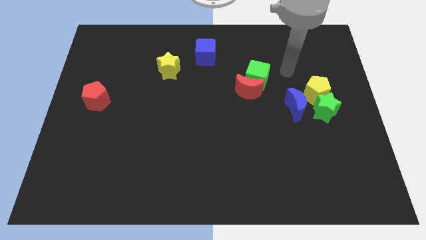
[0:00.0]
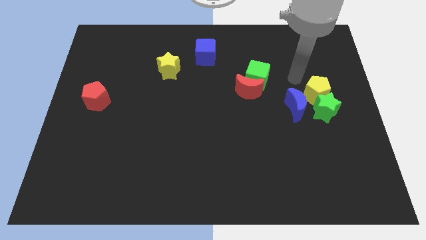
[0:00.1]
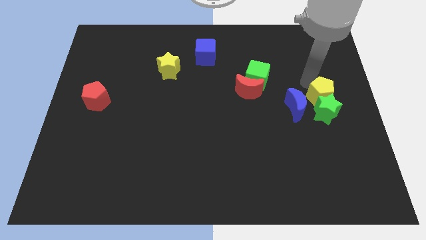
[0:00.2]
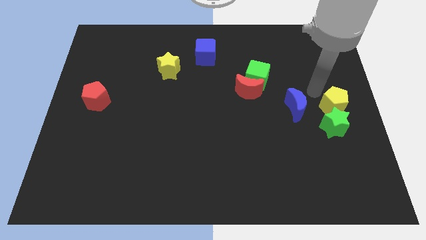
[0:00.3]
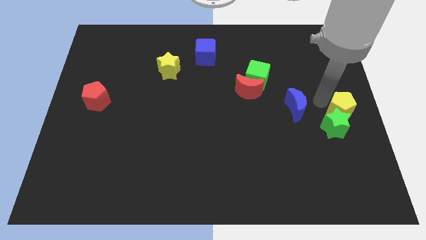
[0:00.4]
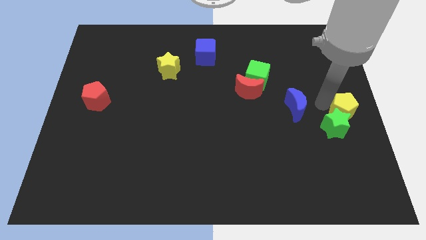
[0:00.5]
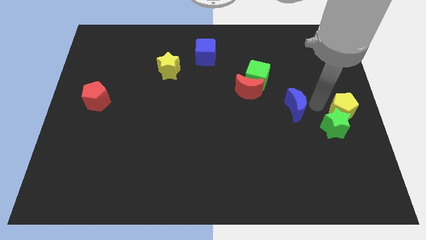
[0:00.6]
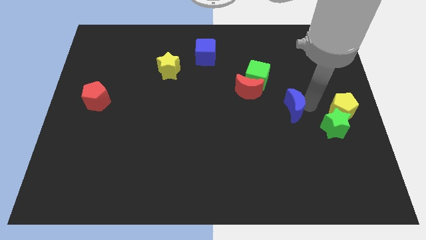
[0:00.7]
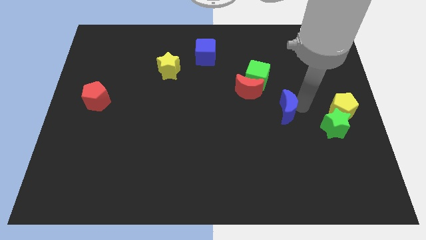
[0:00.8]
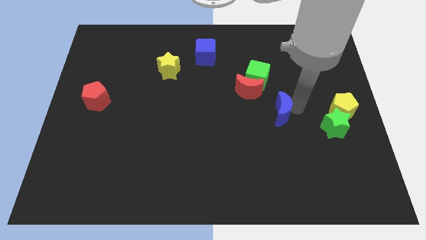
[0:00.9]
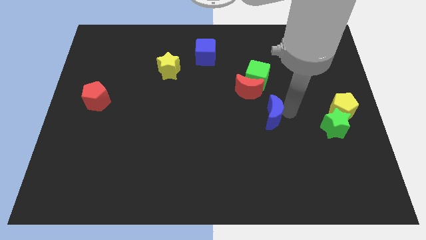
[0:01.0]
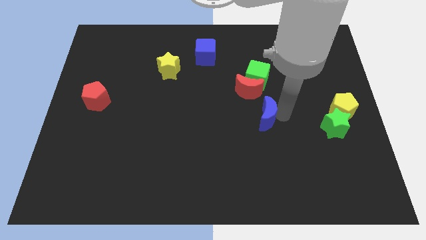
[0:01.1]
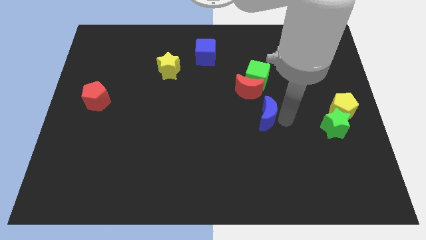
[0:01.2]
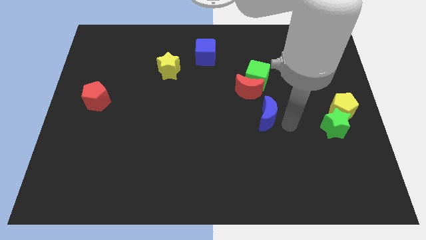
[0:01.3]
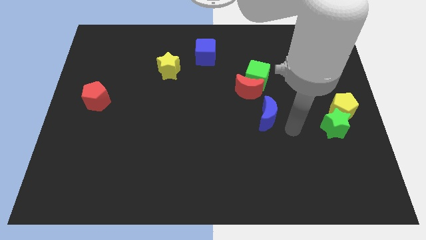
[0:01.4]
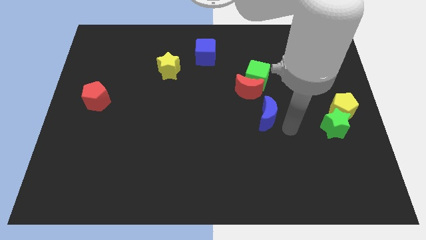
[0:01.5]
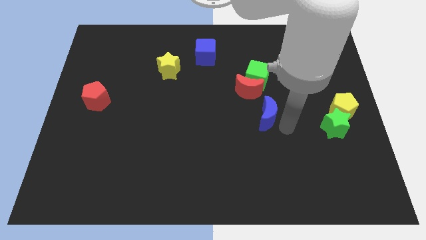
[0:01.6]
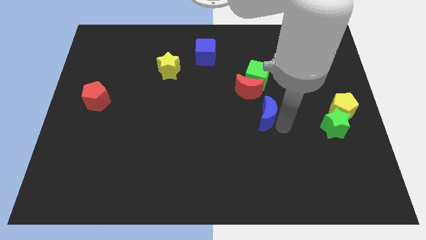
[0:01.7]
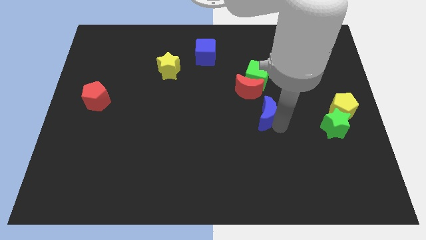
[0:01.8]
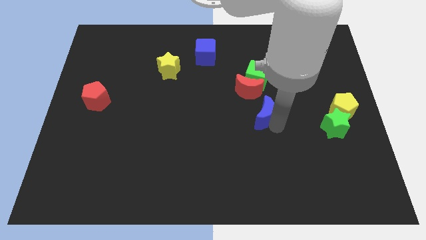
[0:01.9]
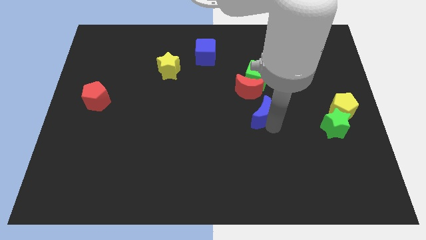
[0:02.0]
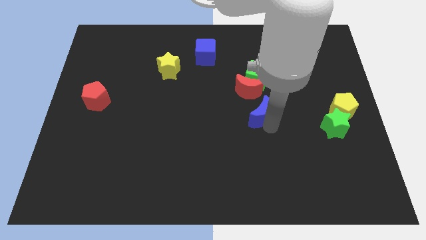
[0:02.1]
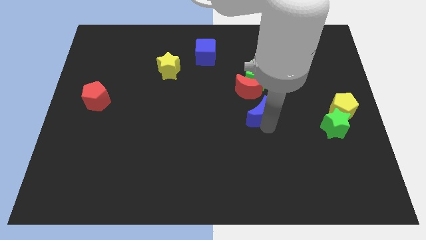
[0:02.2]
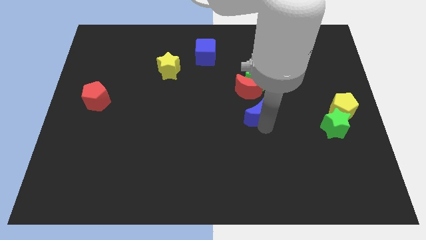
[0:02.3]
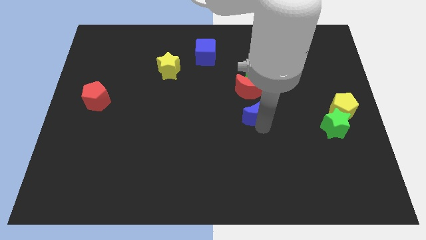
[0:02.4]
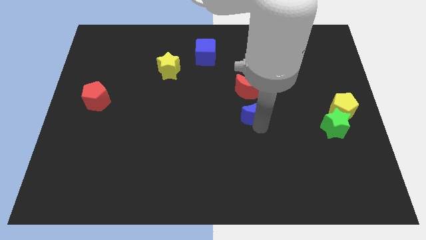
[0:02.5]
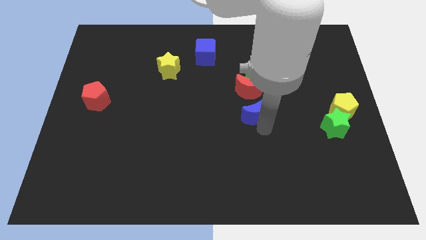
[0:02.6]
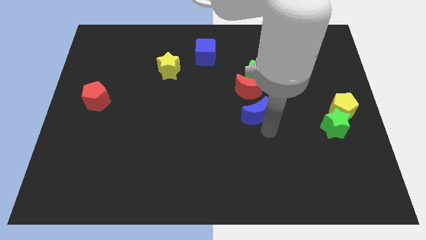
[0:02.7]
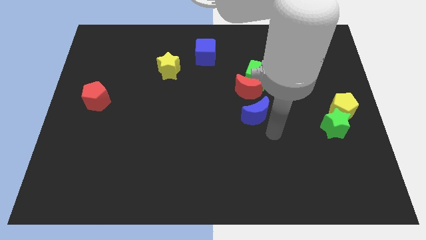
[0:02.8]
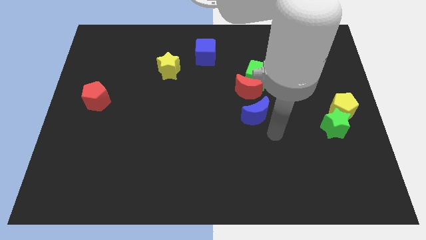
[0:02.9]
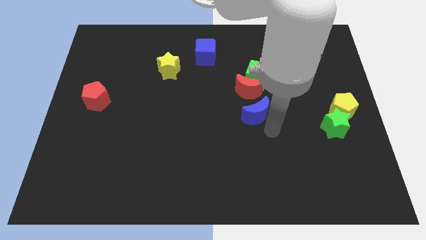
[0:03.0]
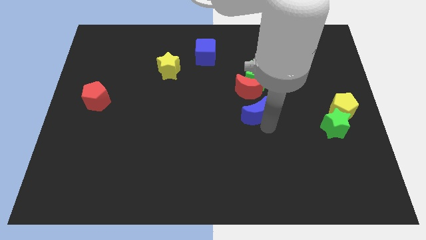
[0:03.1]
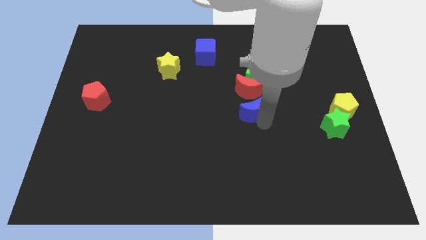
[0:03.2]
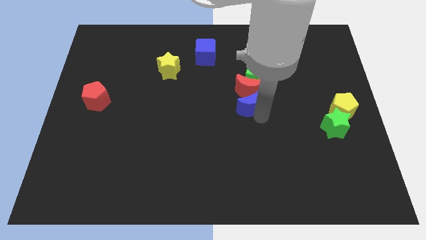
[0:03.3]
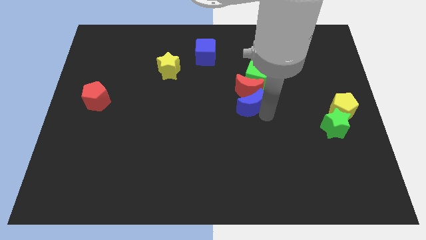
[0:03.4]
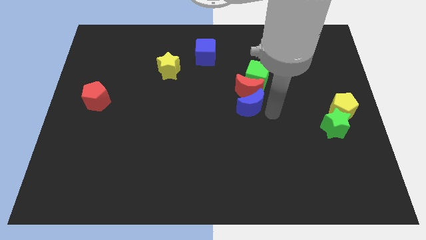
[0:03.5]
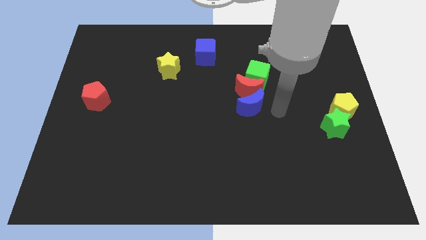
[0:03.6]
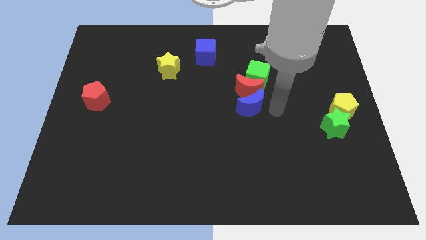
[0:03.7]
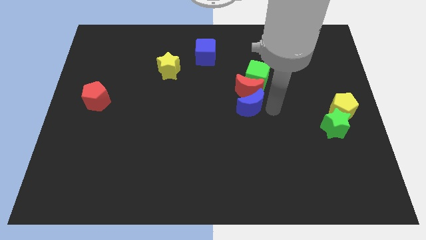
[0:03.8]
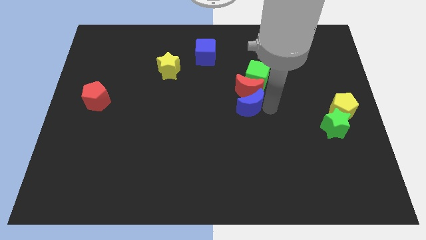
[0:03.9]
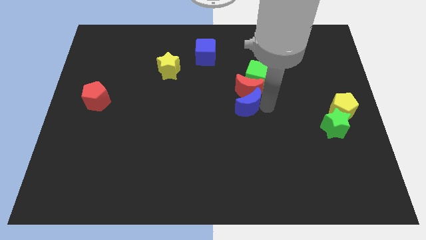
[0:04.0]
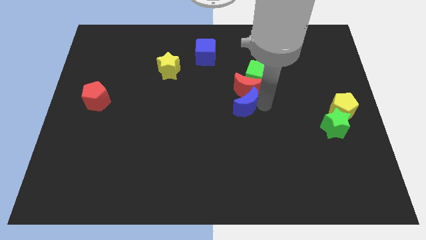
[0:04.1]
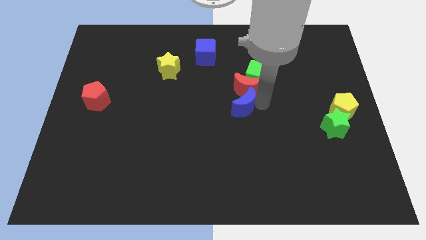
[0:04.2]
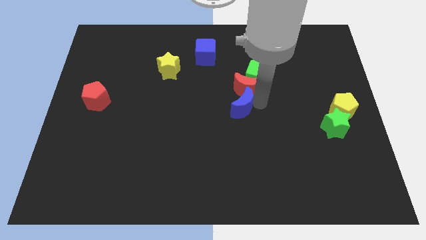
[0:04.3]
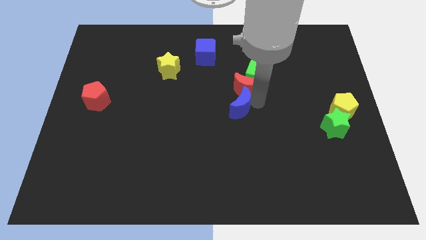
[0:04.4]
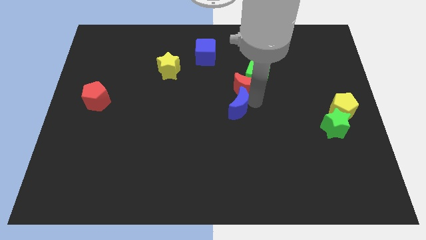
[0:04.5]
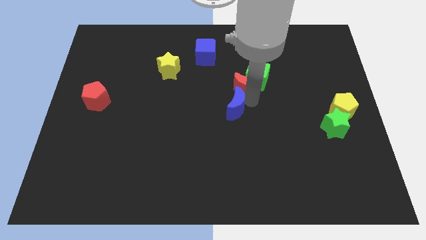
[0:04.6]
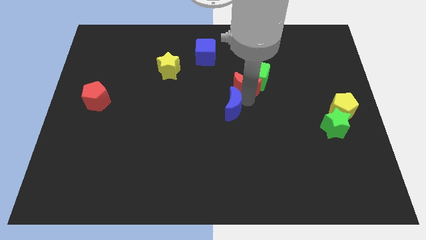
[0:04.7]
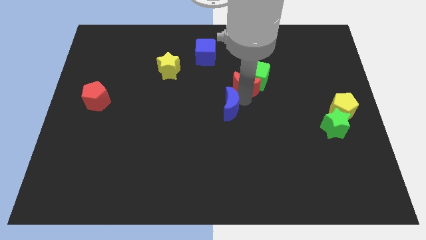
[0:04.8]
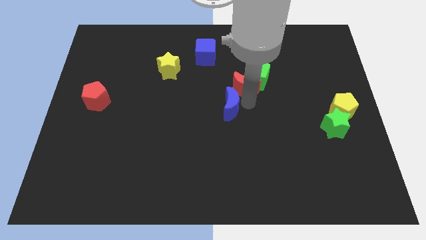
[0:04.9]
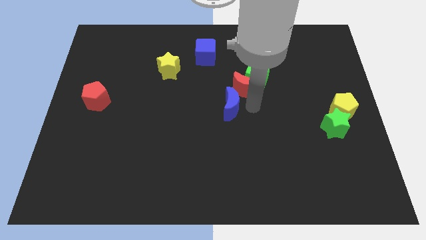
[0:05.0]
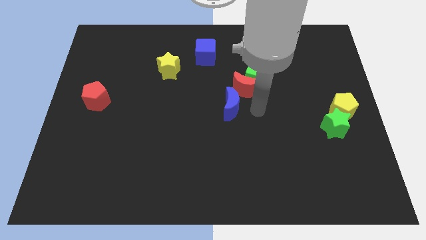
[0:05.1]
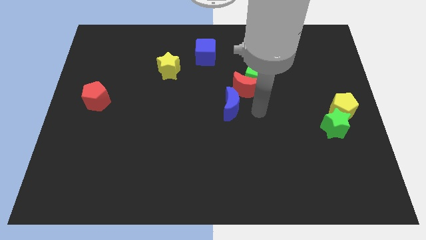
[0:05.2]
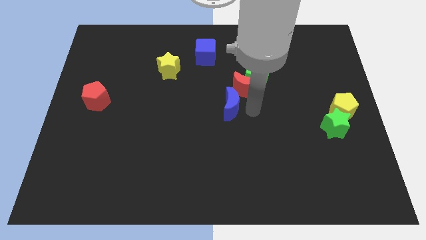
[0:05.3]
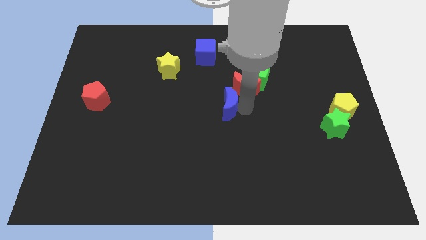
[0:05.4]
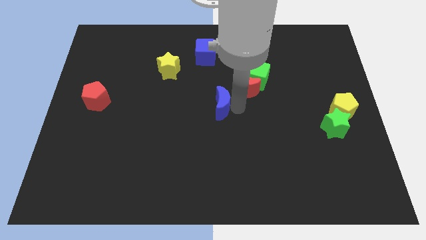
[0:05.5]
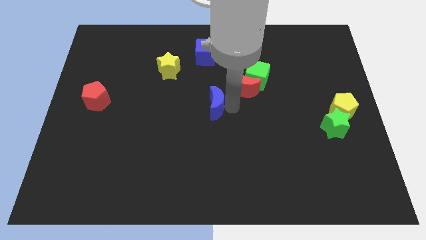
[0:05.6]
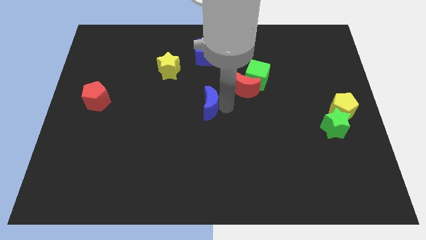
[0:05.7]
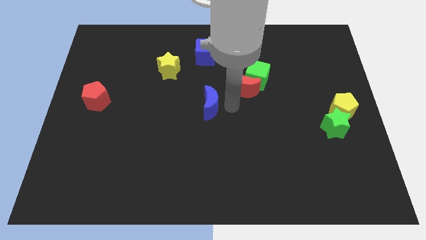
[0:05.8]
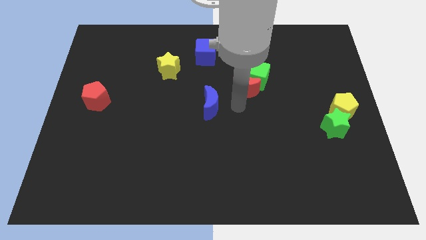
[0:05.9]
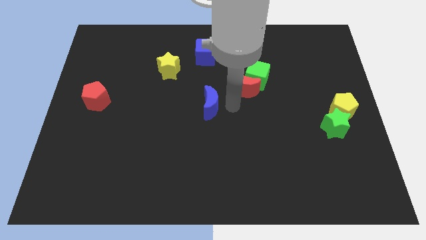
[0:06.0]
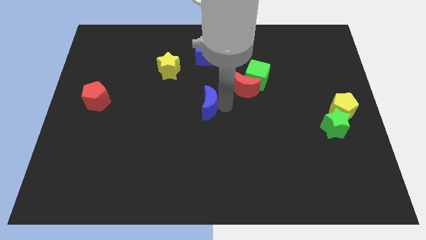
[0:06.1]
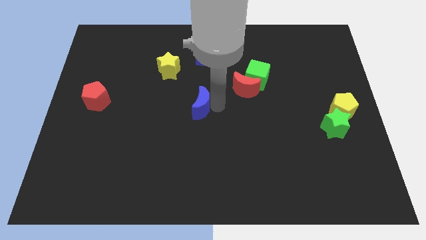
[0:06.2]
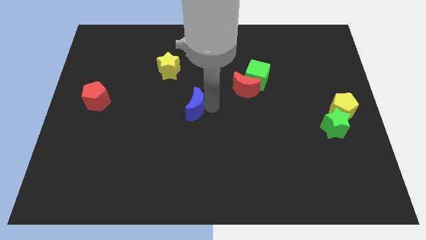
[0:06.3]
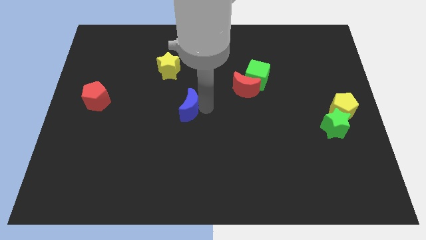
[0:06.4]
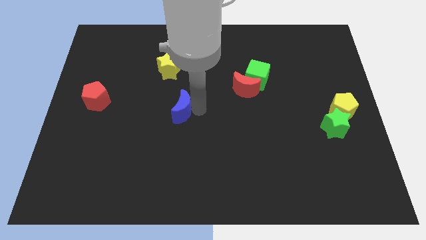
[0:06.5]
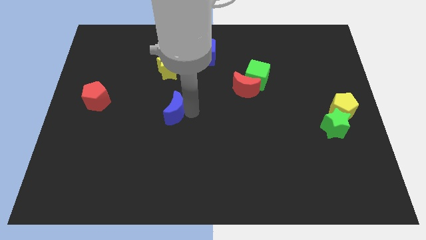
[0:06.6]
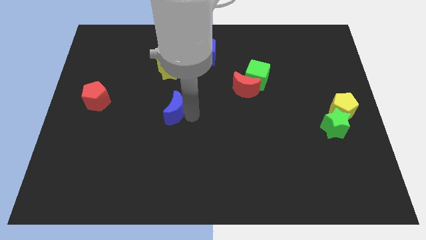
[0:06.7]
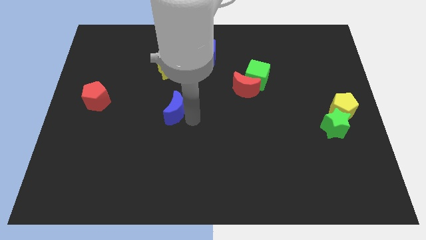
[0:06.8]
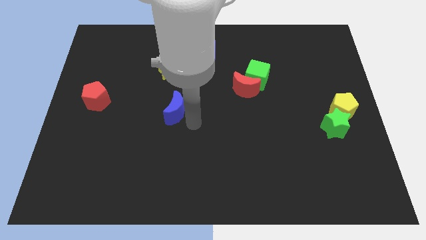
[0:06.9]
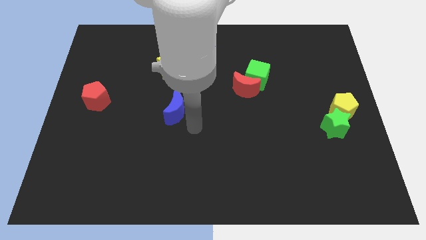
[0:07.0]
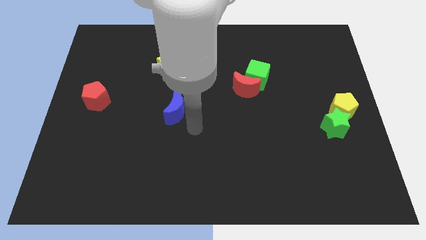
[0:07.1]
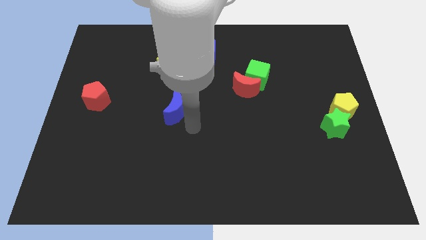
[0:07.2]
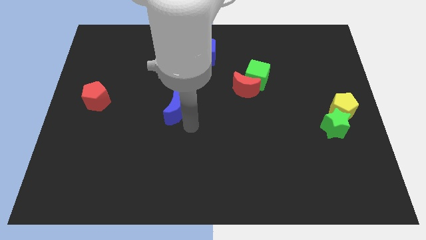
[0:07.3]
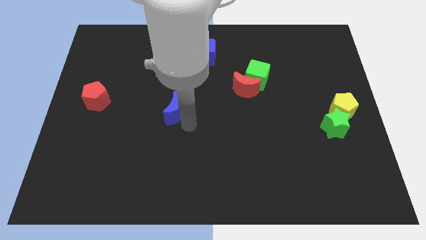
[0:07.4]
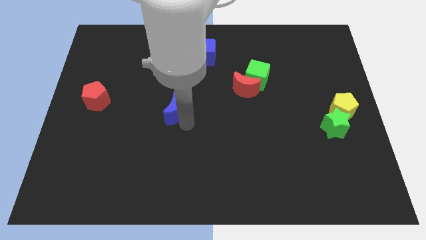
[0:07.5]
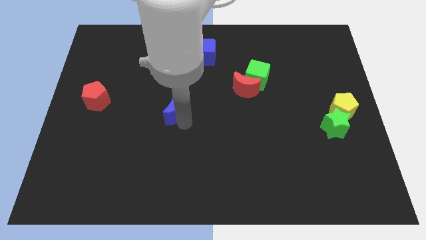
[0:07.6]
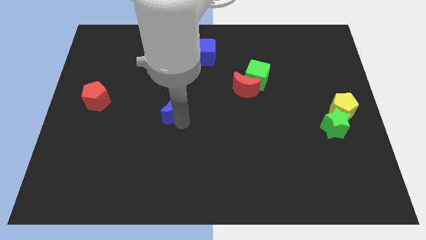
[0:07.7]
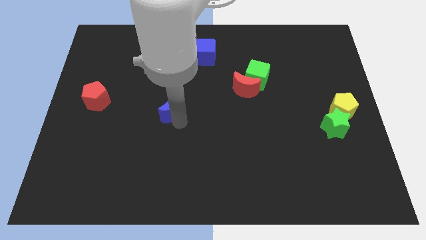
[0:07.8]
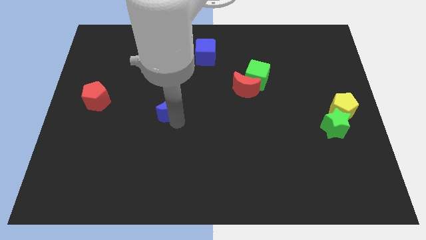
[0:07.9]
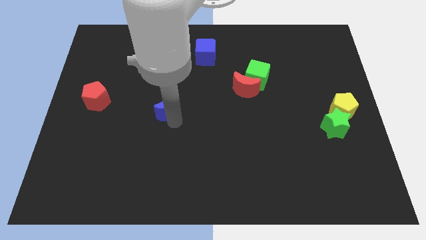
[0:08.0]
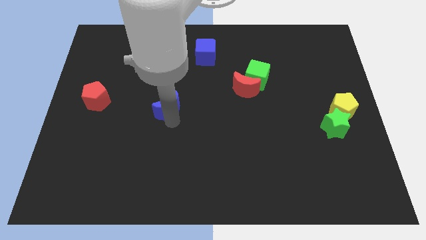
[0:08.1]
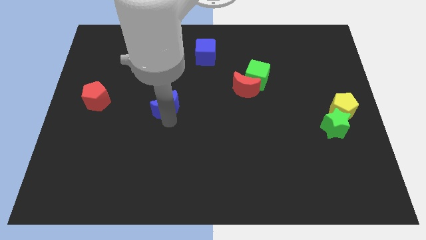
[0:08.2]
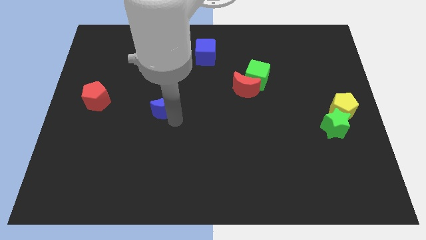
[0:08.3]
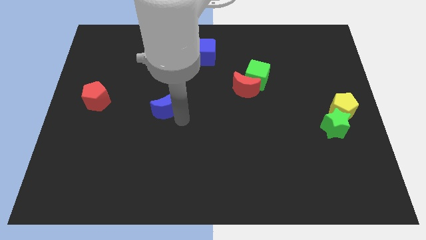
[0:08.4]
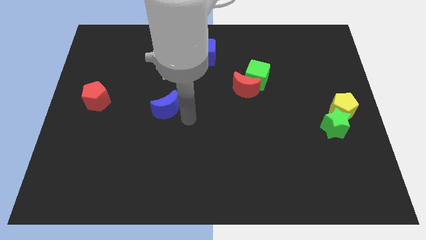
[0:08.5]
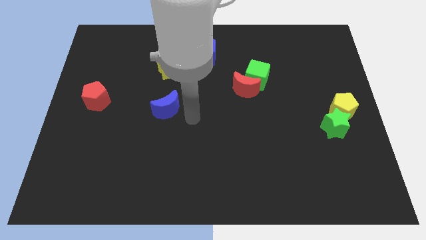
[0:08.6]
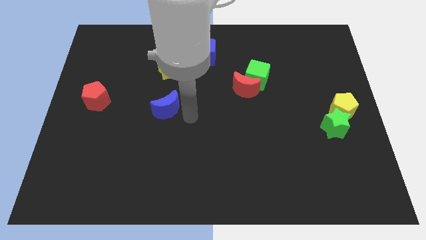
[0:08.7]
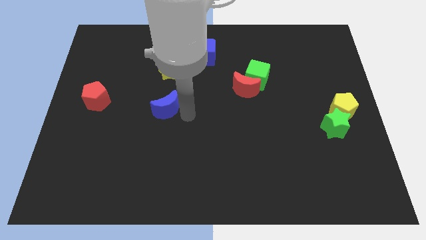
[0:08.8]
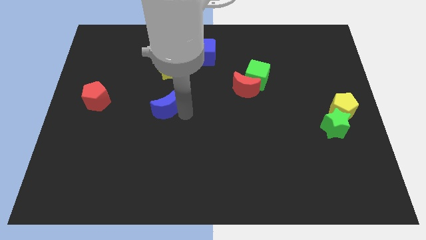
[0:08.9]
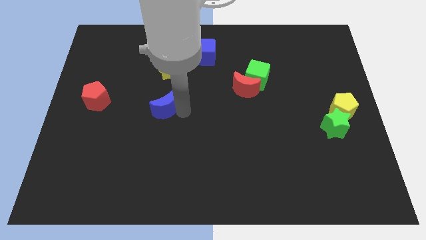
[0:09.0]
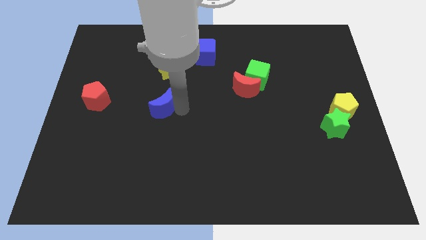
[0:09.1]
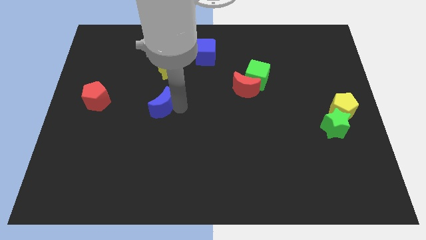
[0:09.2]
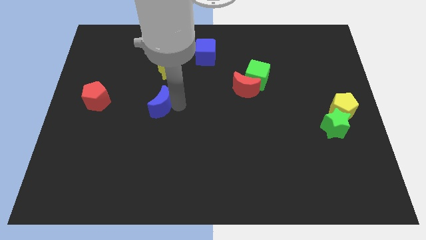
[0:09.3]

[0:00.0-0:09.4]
move the blue moon to the right side of the red pentagon
